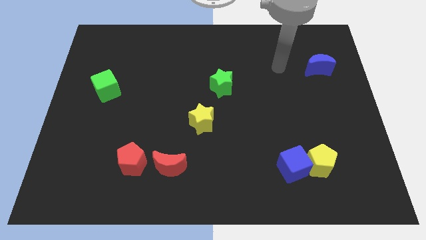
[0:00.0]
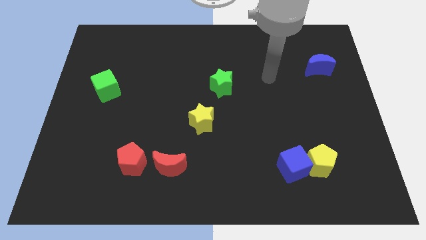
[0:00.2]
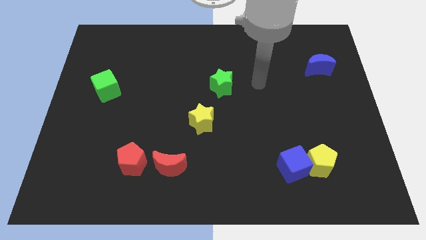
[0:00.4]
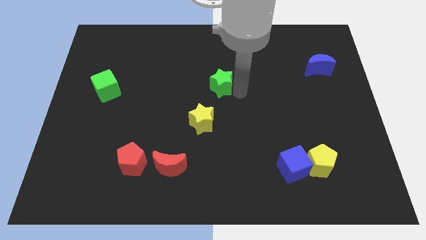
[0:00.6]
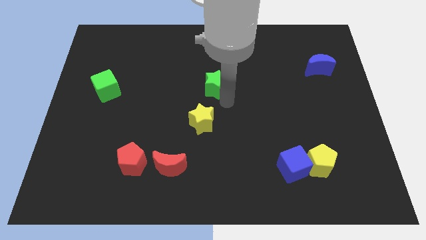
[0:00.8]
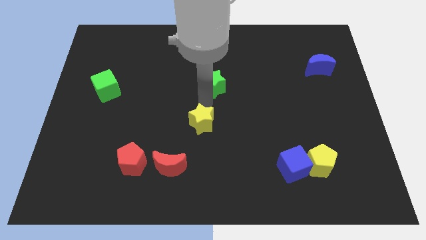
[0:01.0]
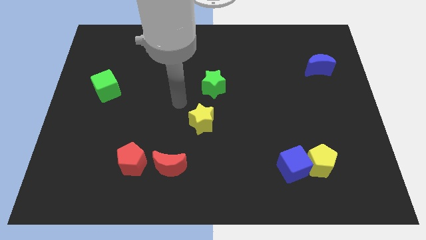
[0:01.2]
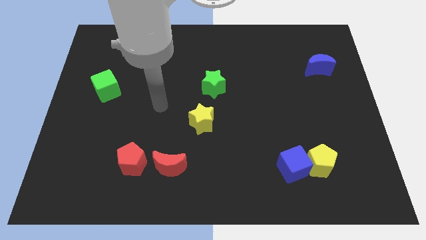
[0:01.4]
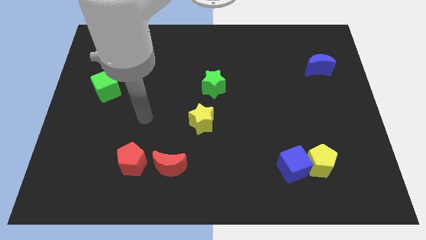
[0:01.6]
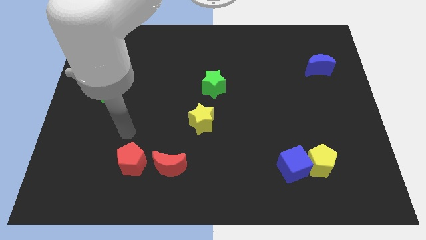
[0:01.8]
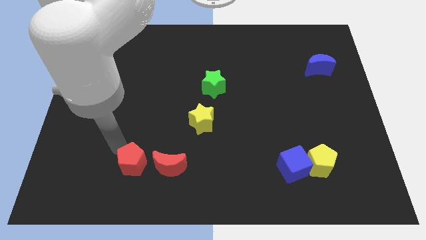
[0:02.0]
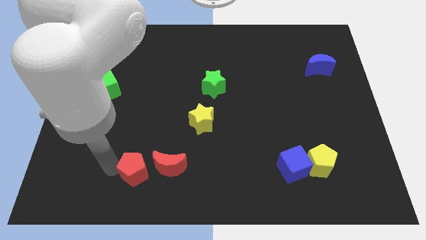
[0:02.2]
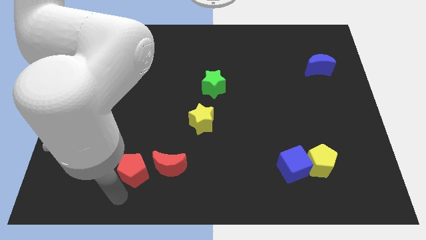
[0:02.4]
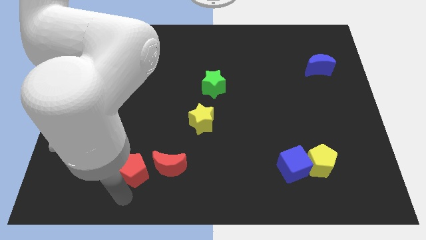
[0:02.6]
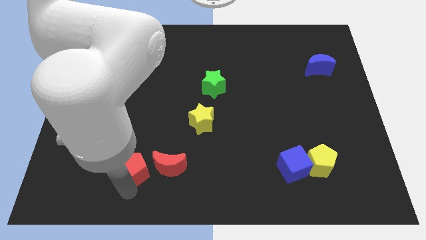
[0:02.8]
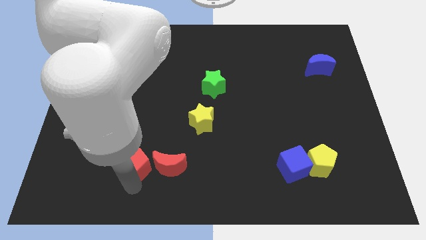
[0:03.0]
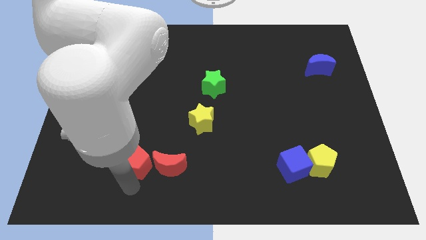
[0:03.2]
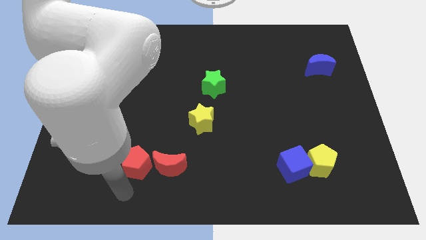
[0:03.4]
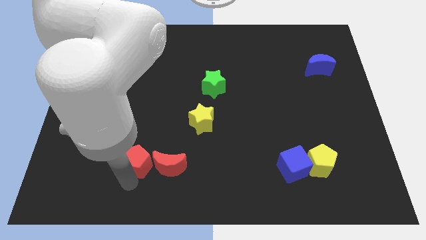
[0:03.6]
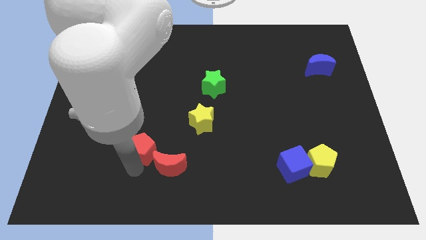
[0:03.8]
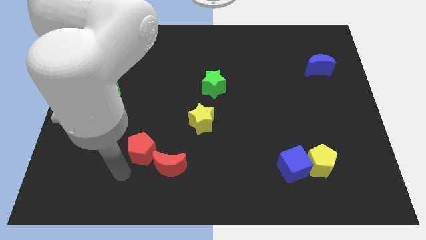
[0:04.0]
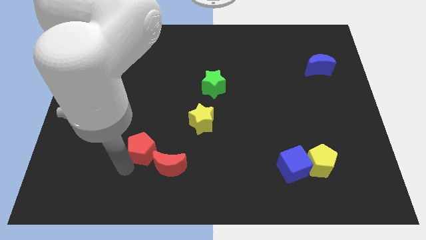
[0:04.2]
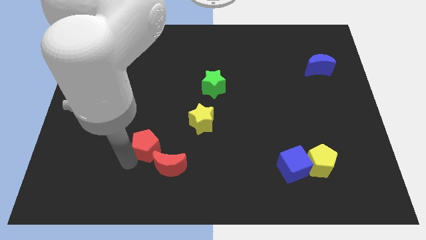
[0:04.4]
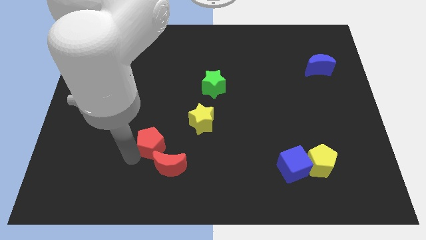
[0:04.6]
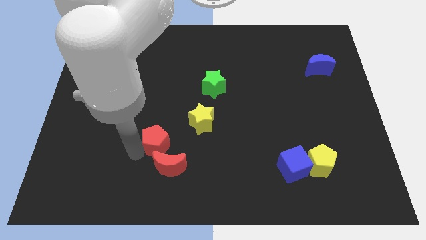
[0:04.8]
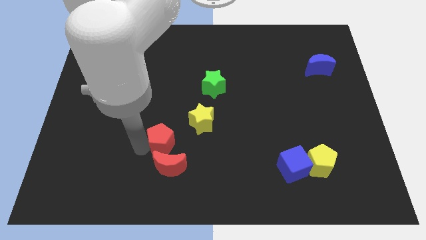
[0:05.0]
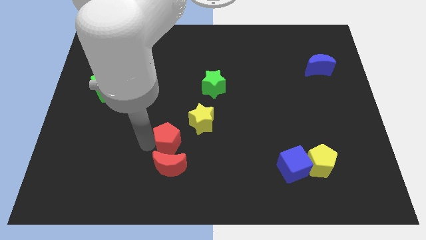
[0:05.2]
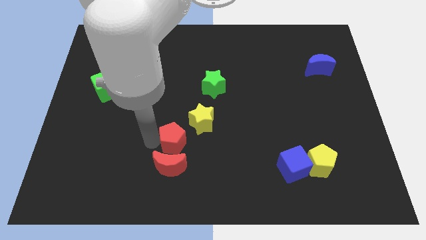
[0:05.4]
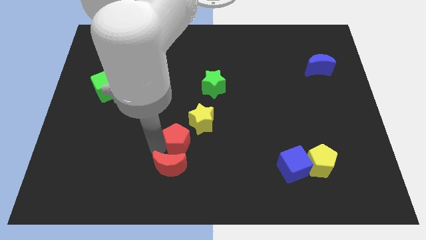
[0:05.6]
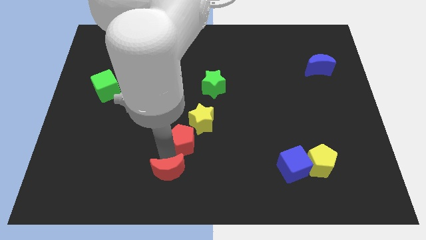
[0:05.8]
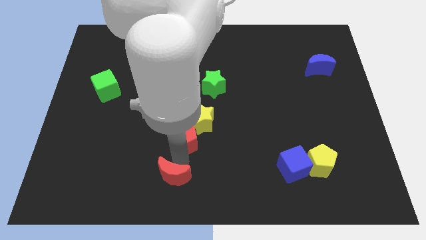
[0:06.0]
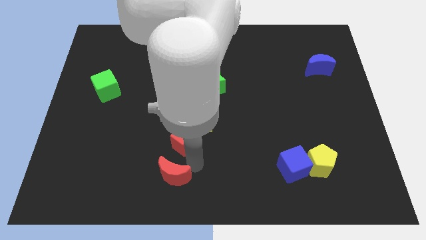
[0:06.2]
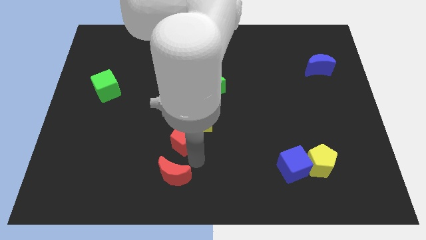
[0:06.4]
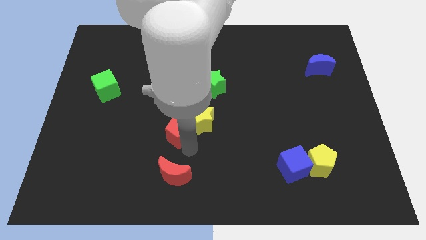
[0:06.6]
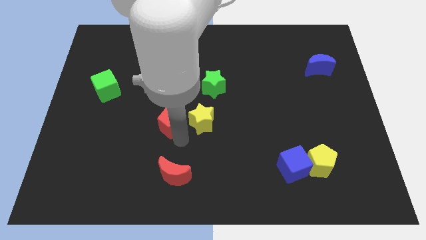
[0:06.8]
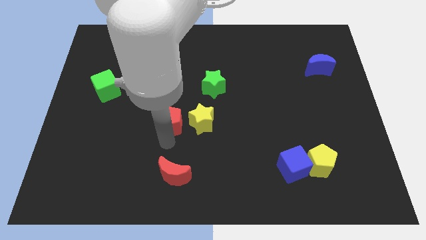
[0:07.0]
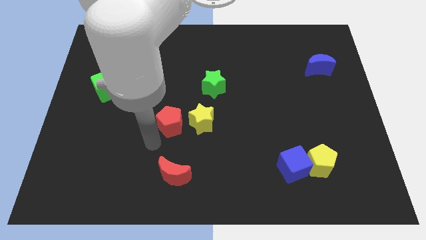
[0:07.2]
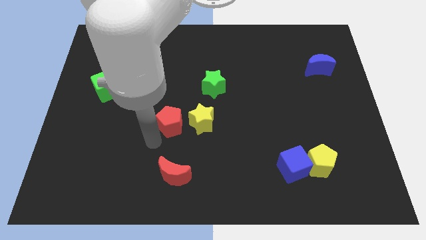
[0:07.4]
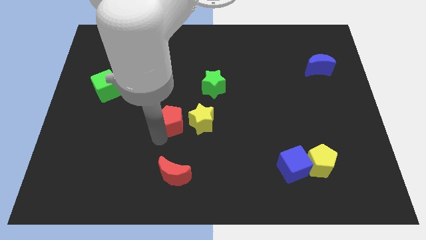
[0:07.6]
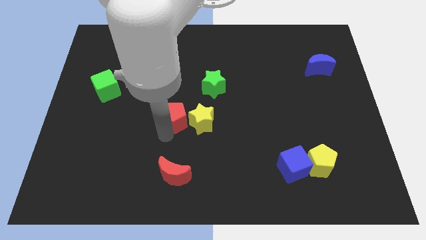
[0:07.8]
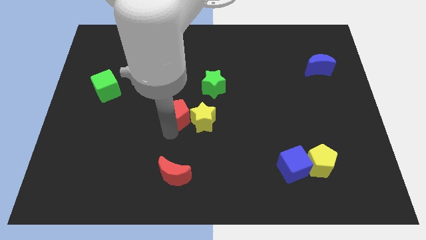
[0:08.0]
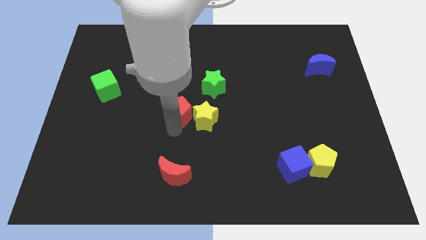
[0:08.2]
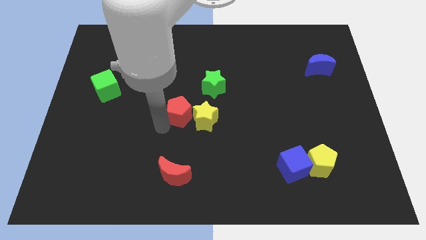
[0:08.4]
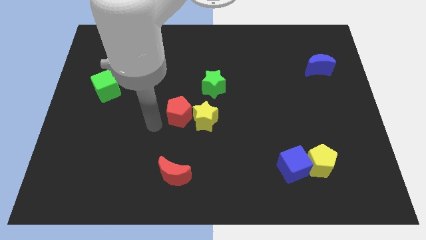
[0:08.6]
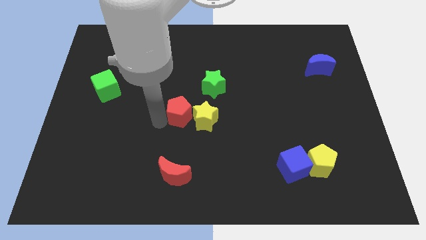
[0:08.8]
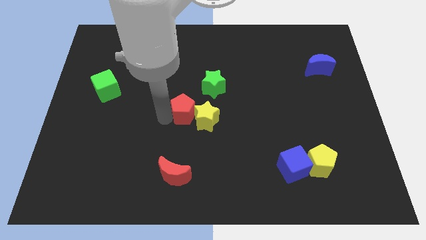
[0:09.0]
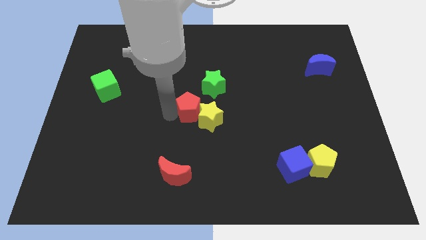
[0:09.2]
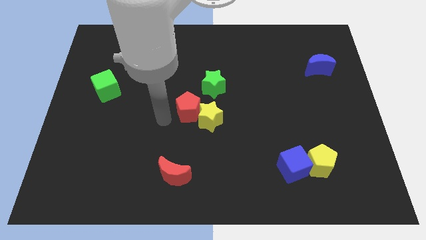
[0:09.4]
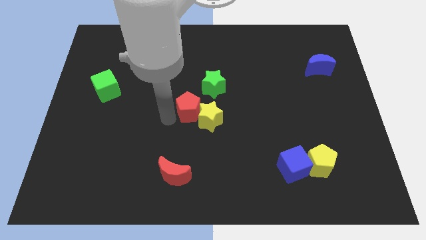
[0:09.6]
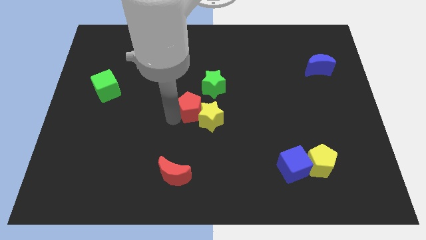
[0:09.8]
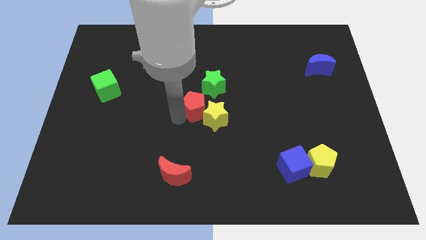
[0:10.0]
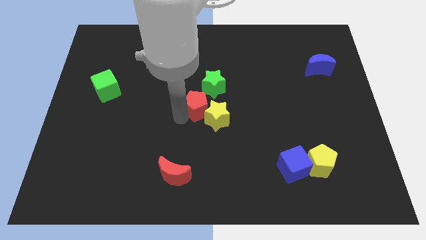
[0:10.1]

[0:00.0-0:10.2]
push the red pentagon up and right diagonally

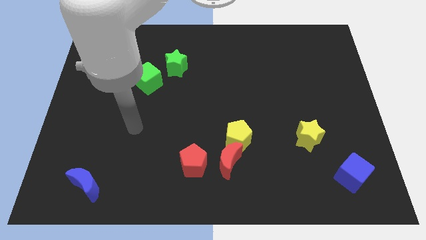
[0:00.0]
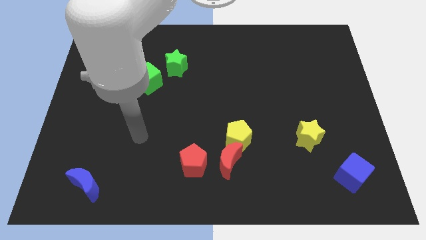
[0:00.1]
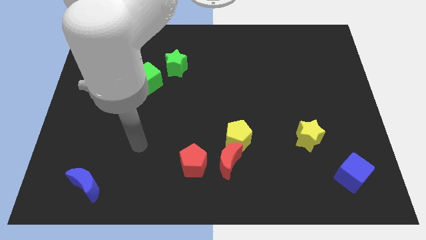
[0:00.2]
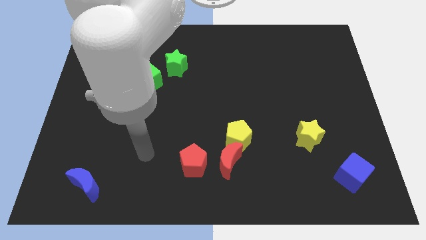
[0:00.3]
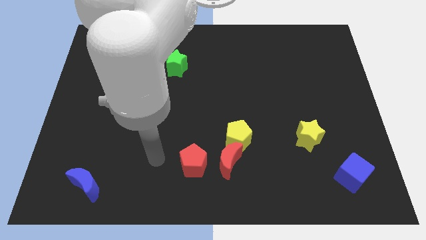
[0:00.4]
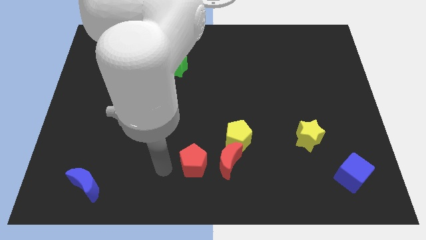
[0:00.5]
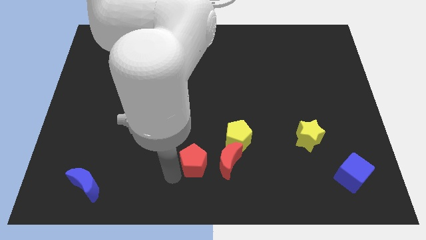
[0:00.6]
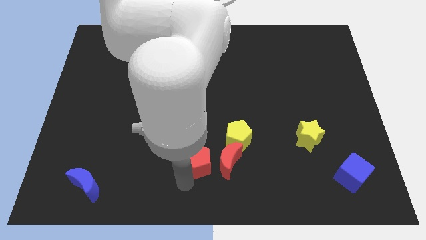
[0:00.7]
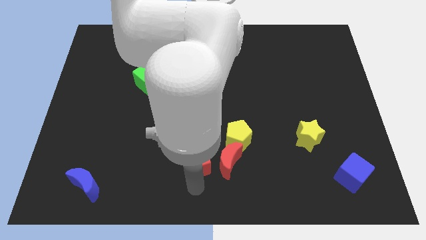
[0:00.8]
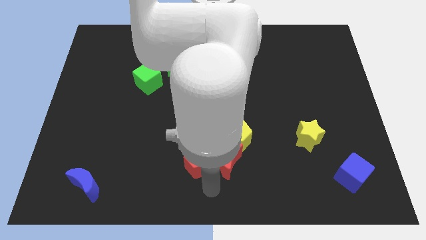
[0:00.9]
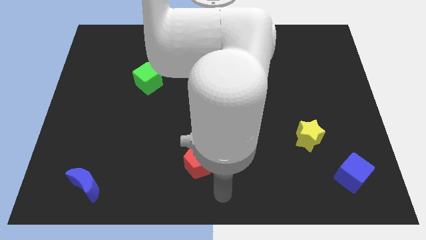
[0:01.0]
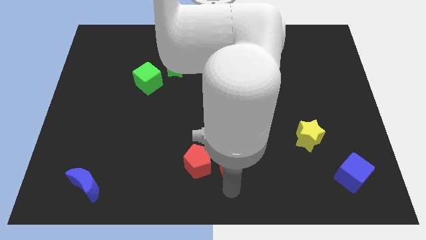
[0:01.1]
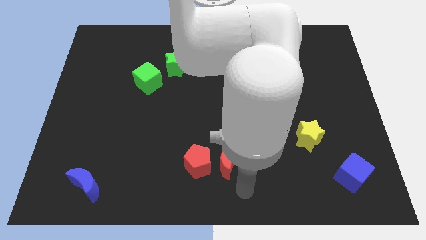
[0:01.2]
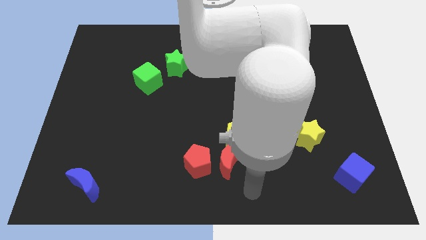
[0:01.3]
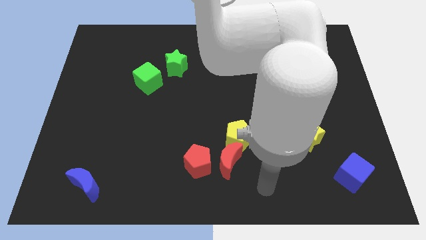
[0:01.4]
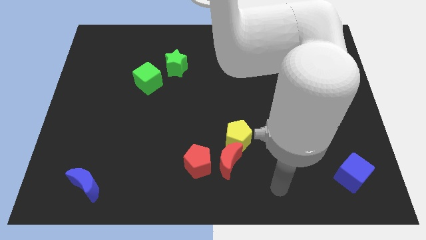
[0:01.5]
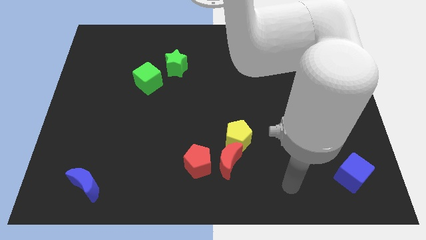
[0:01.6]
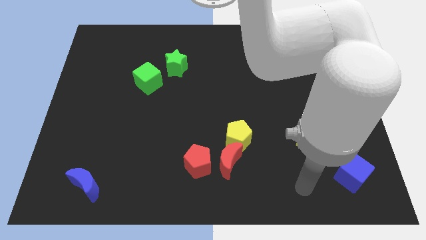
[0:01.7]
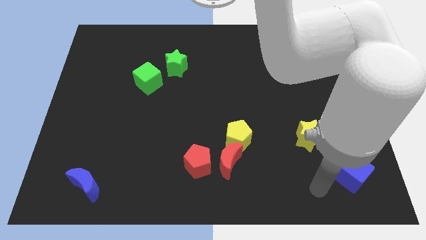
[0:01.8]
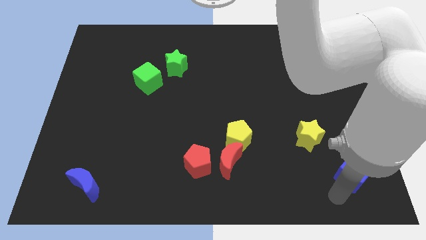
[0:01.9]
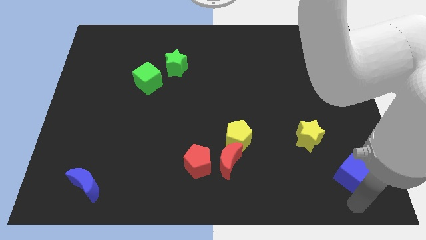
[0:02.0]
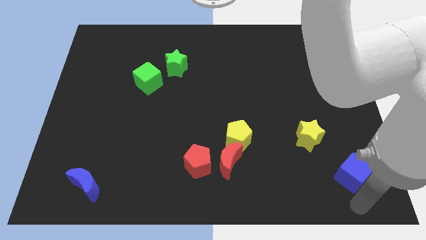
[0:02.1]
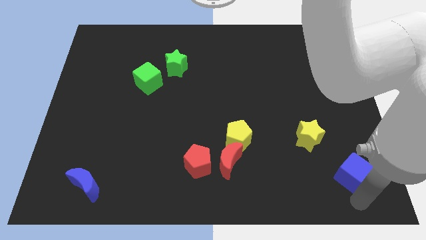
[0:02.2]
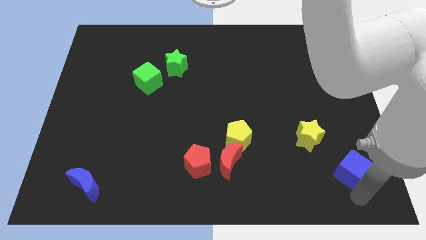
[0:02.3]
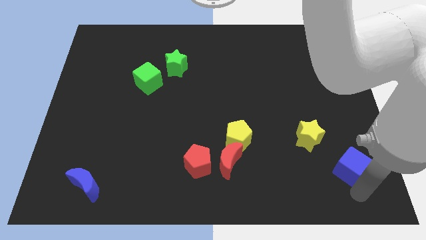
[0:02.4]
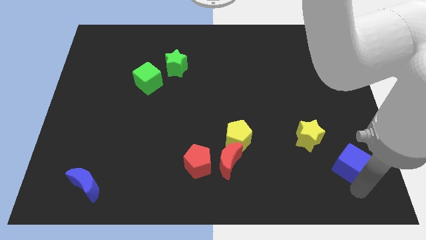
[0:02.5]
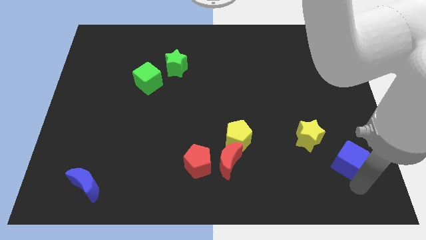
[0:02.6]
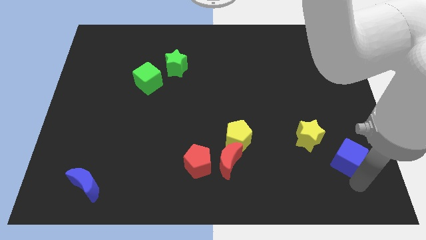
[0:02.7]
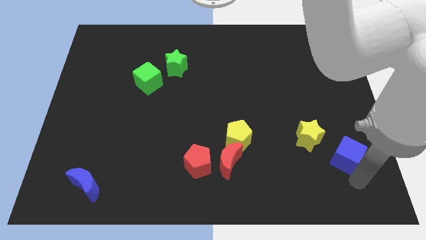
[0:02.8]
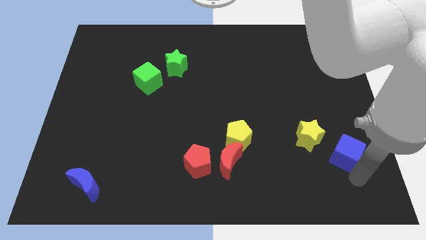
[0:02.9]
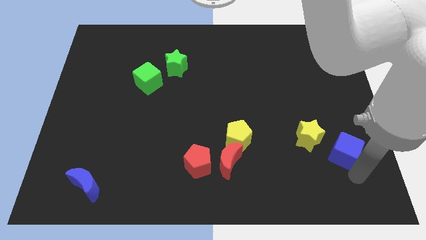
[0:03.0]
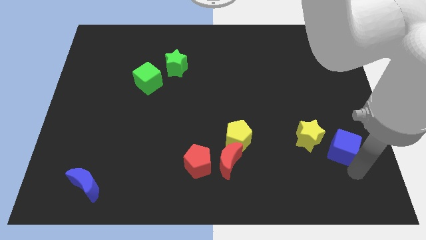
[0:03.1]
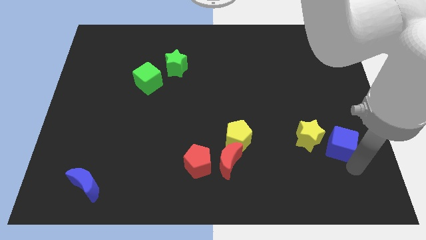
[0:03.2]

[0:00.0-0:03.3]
move the blue cube somewhat up
